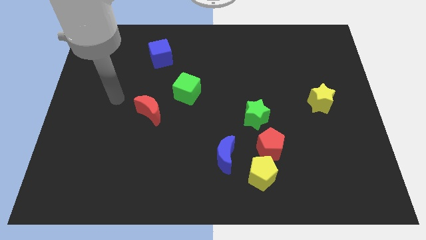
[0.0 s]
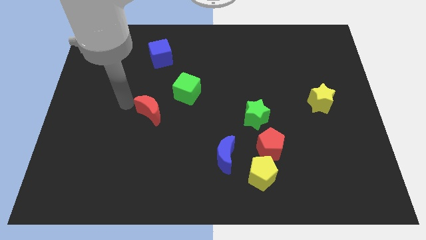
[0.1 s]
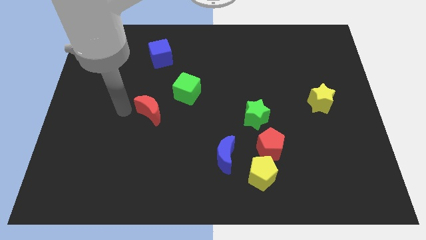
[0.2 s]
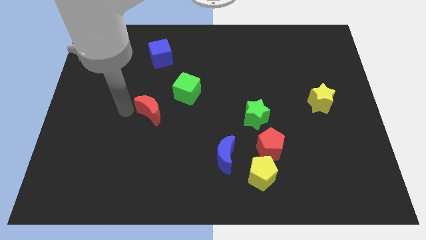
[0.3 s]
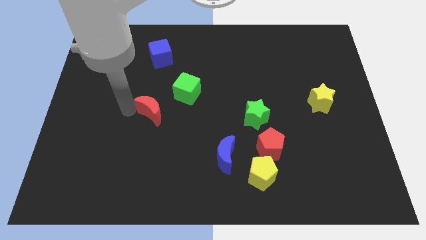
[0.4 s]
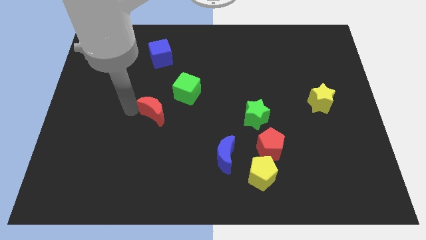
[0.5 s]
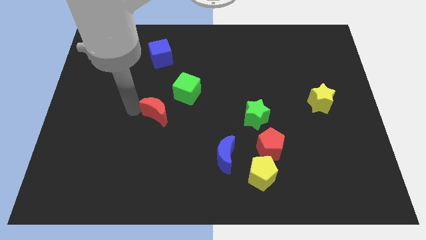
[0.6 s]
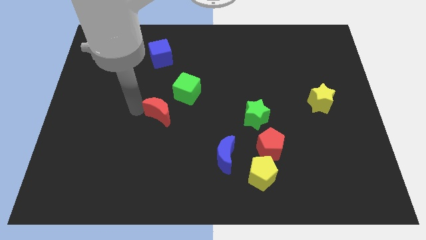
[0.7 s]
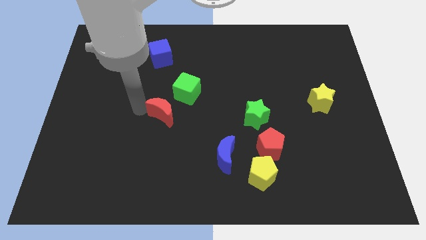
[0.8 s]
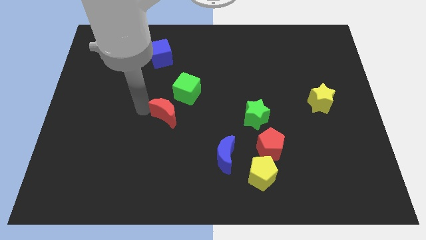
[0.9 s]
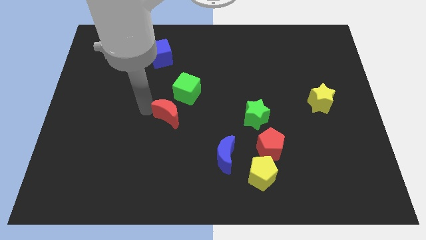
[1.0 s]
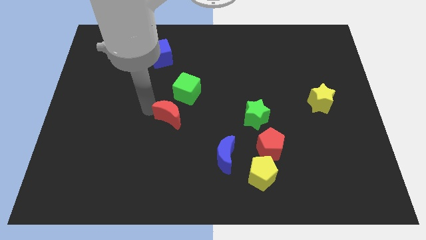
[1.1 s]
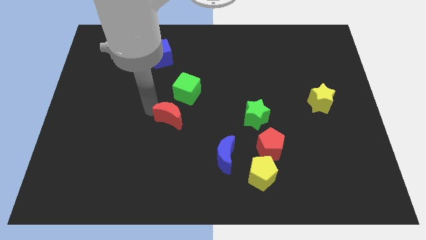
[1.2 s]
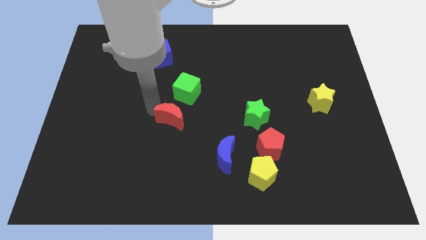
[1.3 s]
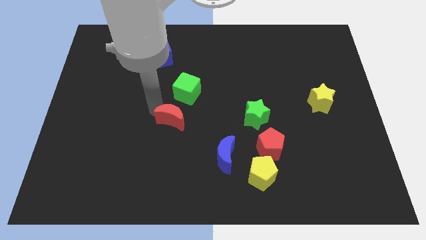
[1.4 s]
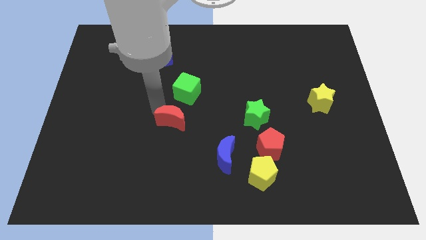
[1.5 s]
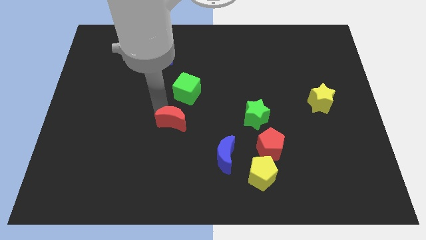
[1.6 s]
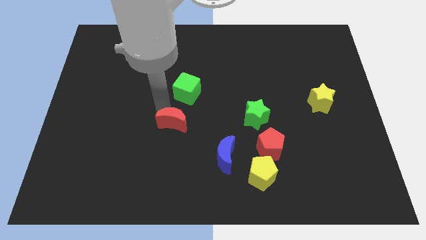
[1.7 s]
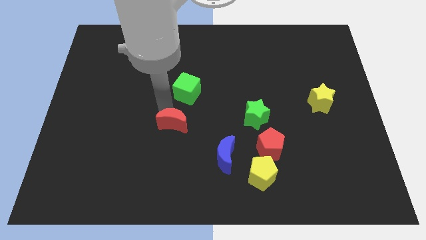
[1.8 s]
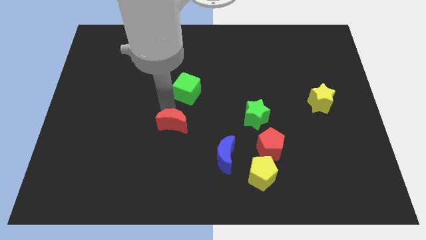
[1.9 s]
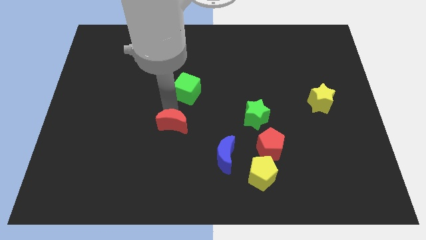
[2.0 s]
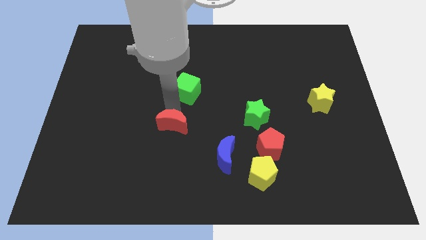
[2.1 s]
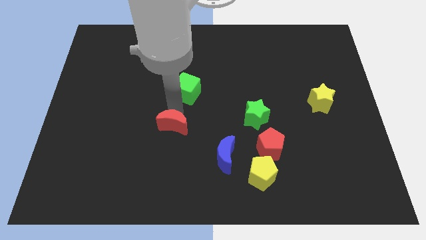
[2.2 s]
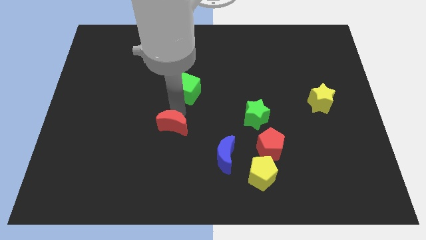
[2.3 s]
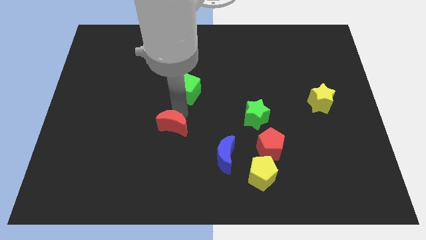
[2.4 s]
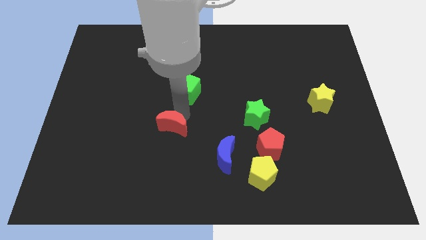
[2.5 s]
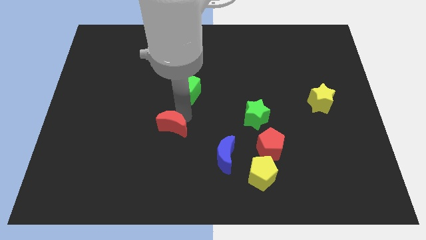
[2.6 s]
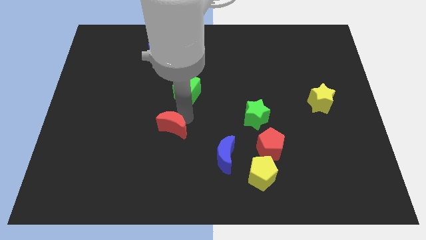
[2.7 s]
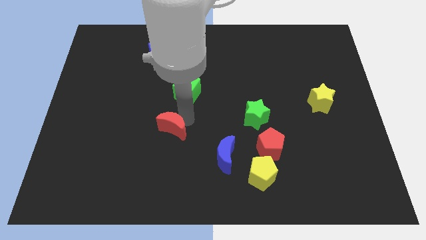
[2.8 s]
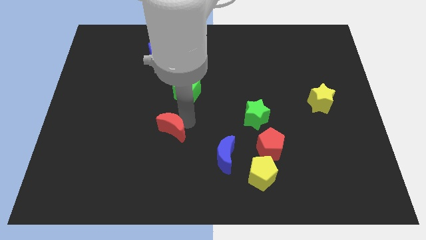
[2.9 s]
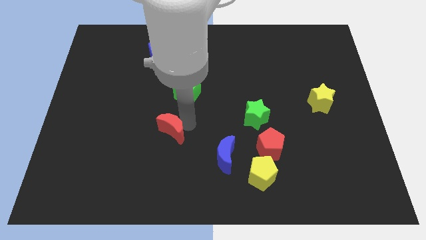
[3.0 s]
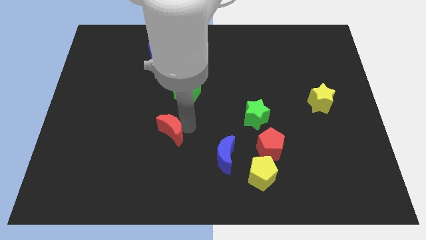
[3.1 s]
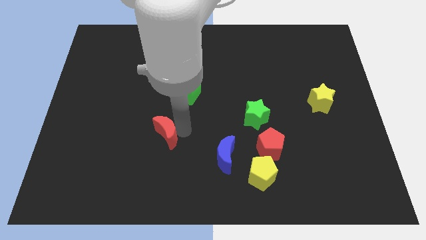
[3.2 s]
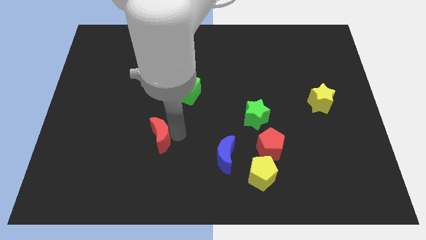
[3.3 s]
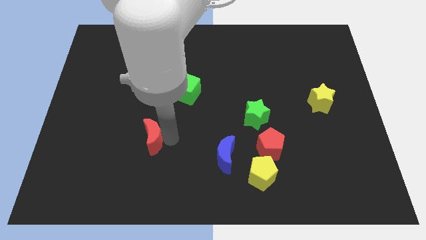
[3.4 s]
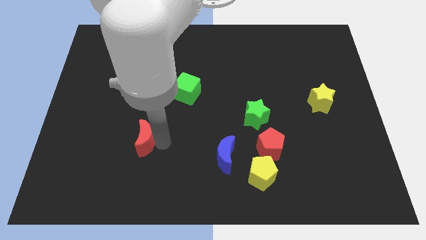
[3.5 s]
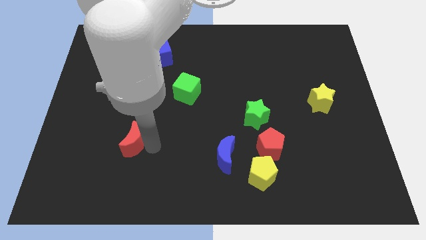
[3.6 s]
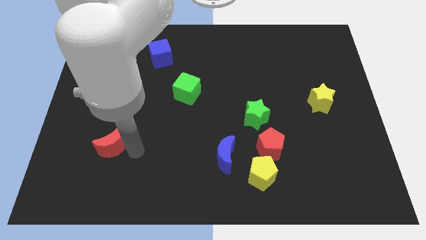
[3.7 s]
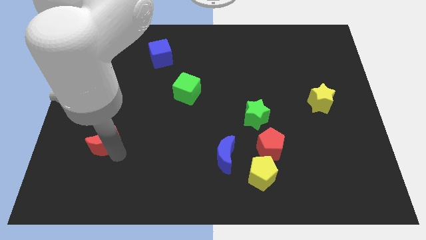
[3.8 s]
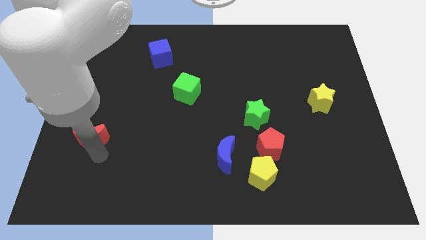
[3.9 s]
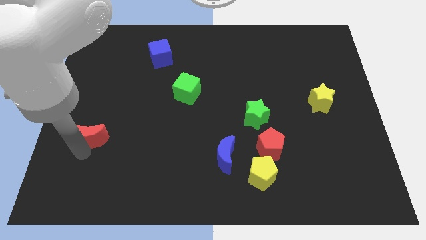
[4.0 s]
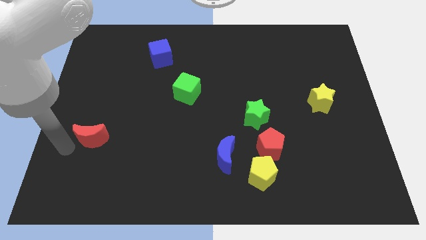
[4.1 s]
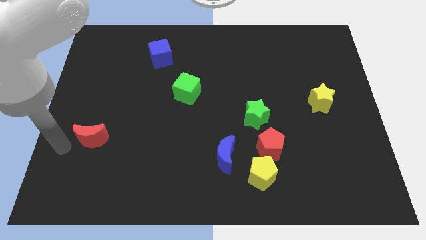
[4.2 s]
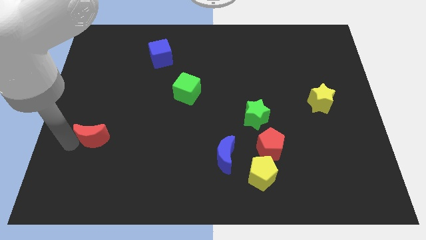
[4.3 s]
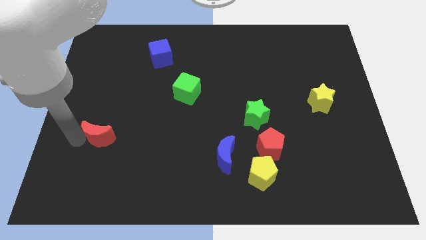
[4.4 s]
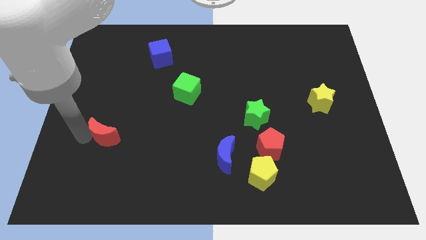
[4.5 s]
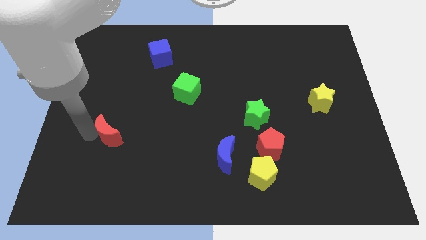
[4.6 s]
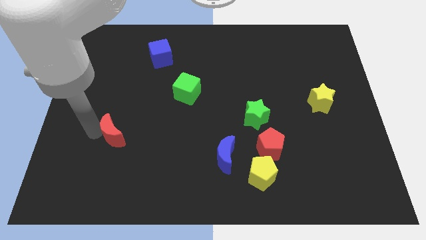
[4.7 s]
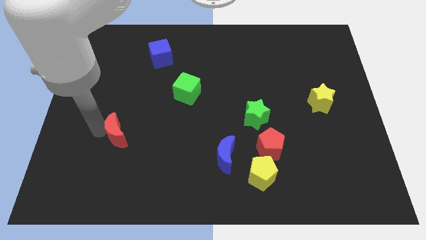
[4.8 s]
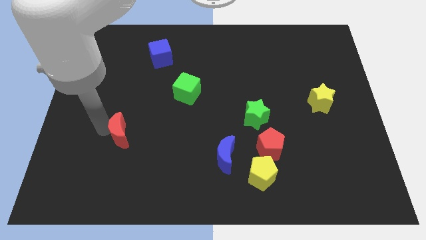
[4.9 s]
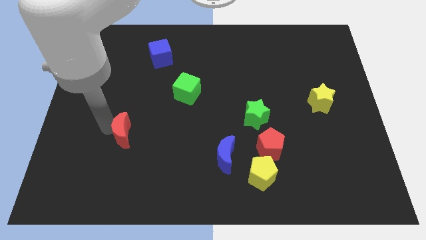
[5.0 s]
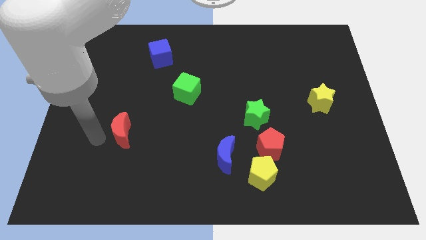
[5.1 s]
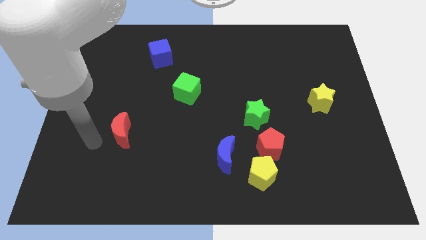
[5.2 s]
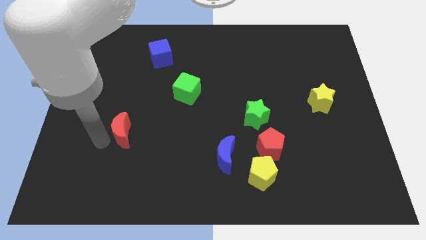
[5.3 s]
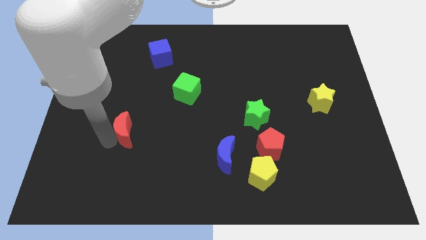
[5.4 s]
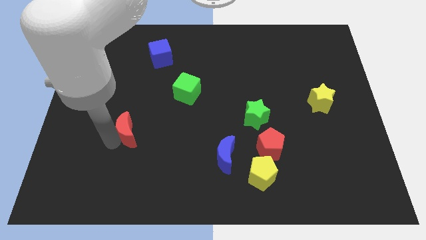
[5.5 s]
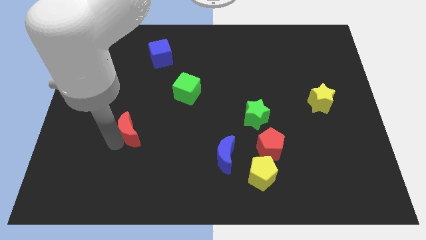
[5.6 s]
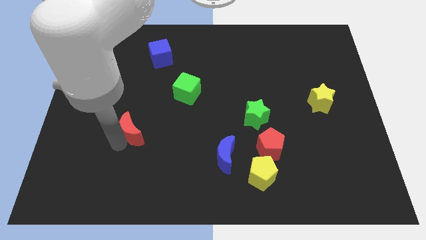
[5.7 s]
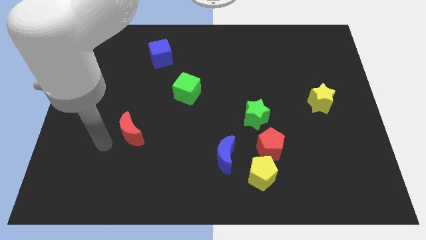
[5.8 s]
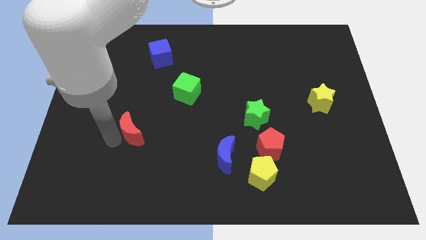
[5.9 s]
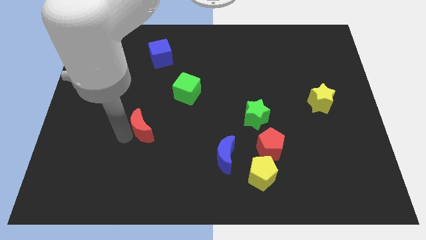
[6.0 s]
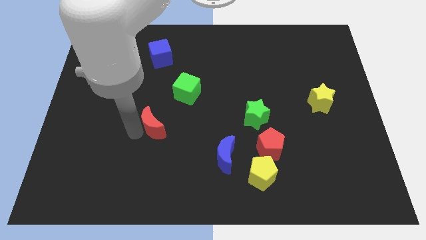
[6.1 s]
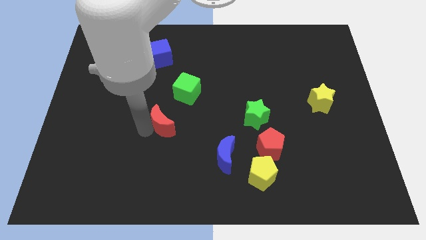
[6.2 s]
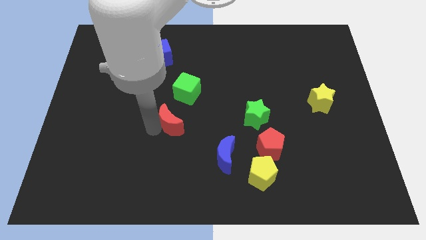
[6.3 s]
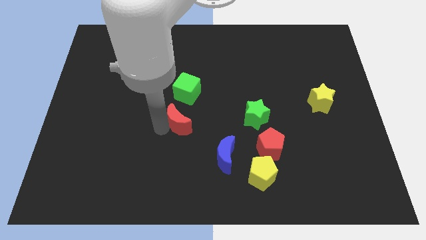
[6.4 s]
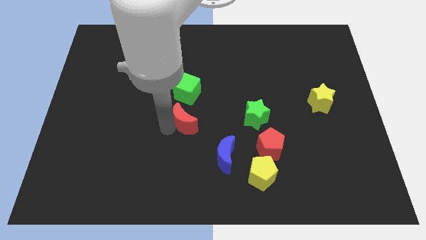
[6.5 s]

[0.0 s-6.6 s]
slightly push the red moon right

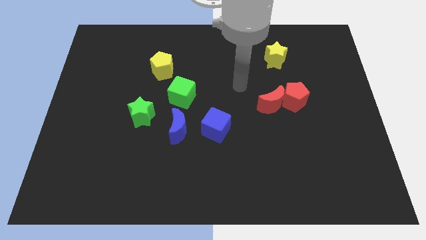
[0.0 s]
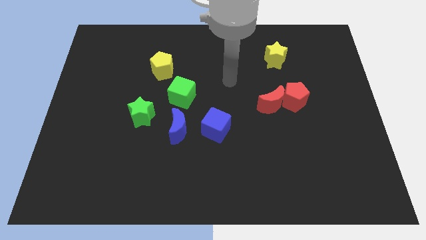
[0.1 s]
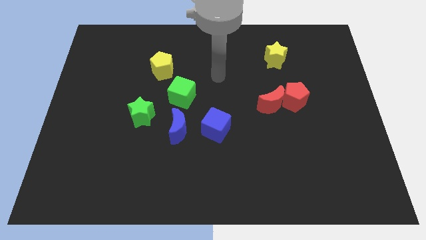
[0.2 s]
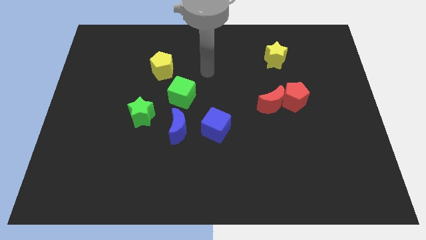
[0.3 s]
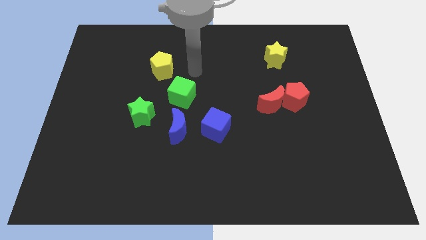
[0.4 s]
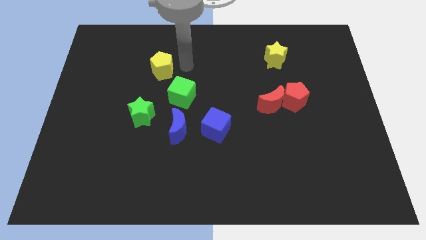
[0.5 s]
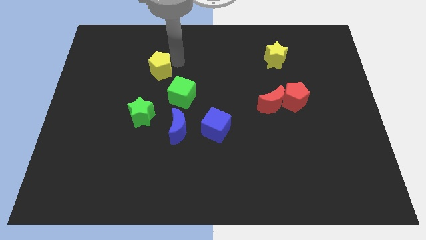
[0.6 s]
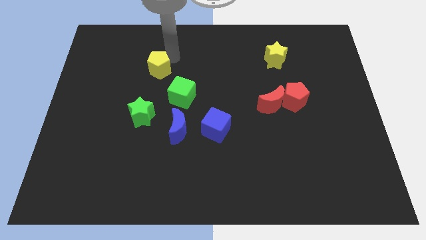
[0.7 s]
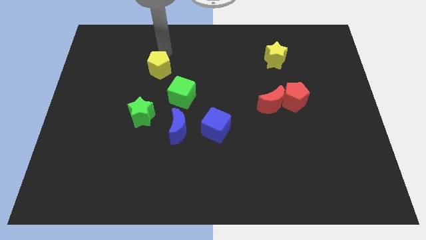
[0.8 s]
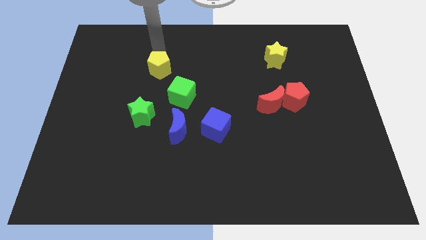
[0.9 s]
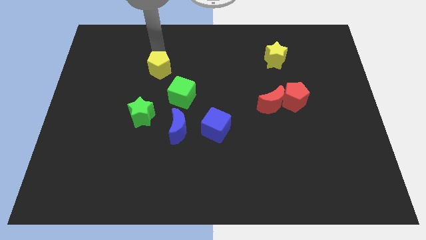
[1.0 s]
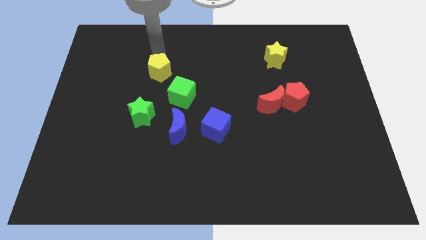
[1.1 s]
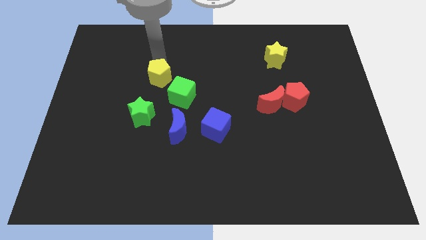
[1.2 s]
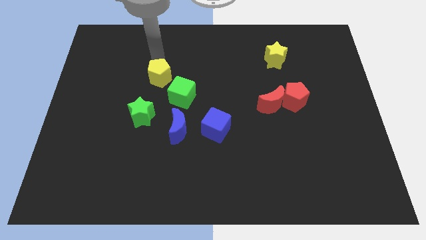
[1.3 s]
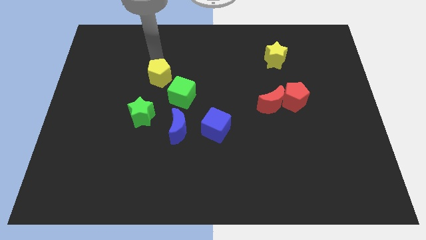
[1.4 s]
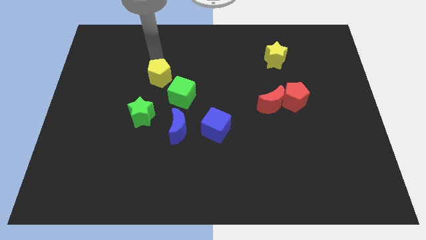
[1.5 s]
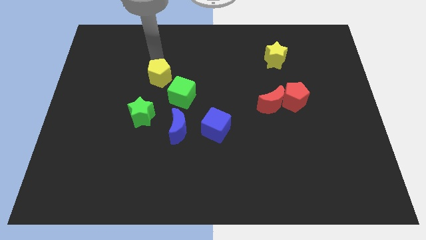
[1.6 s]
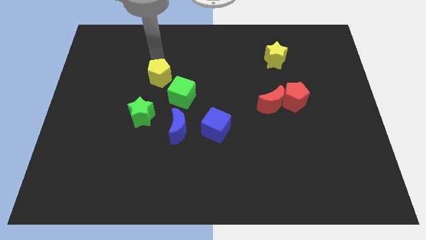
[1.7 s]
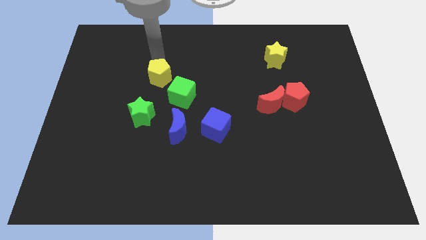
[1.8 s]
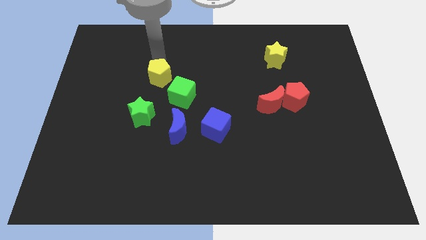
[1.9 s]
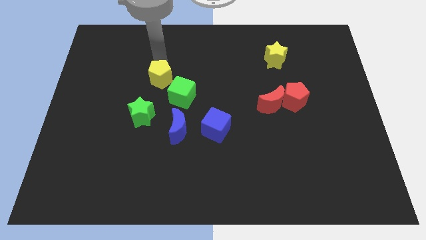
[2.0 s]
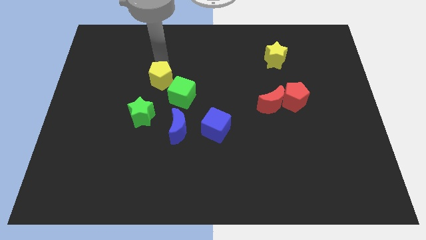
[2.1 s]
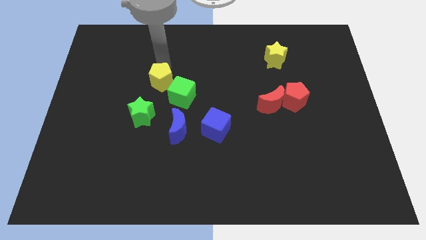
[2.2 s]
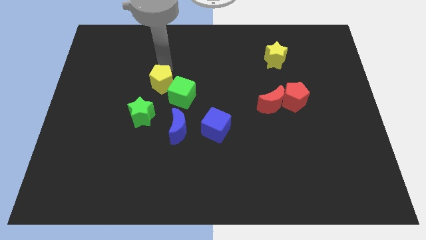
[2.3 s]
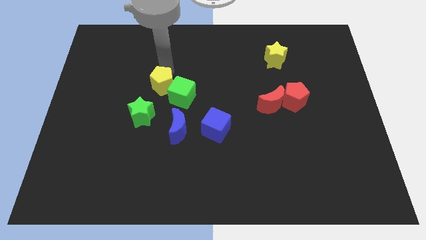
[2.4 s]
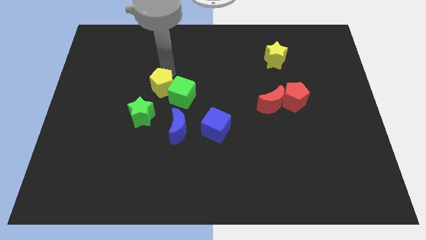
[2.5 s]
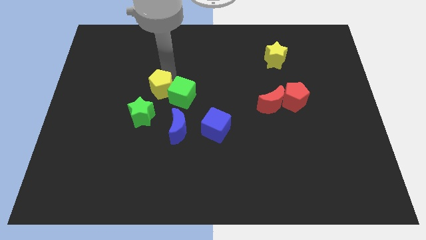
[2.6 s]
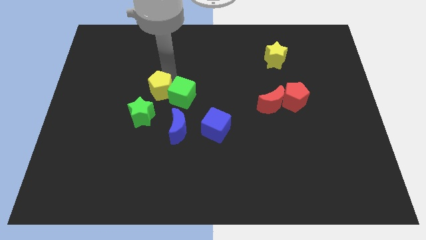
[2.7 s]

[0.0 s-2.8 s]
push the yellow pentagon down a little bit
